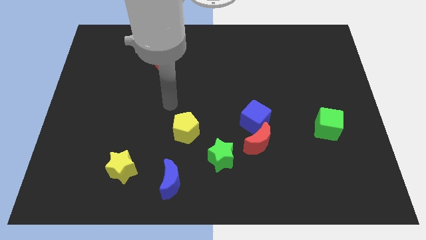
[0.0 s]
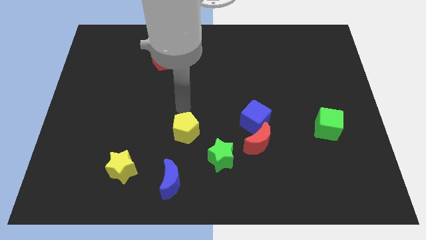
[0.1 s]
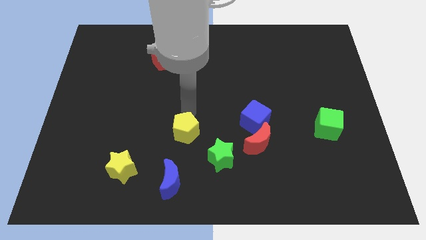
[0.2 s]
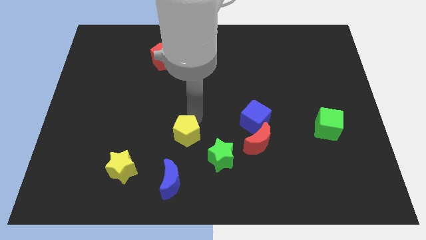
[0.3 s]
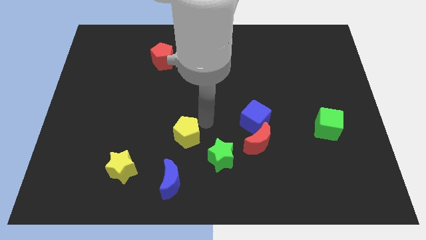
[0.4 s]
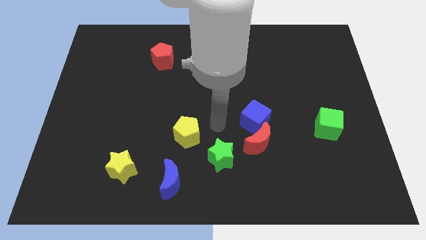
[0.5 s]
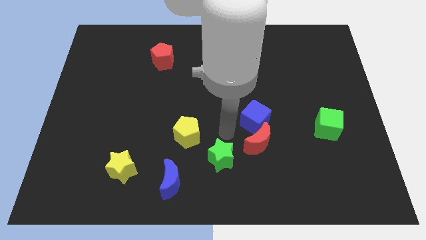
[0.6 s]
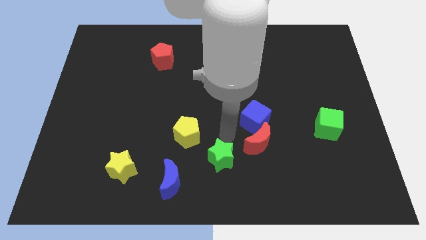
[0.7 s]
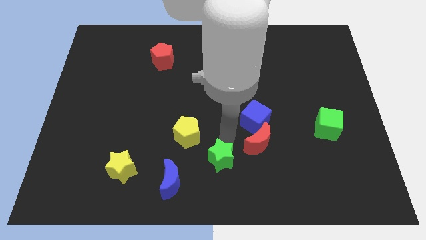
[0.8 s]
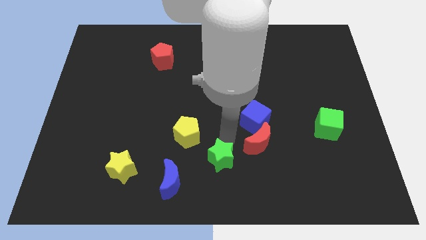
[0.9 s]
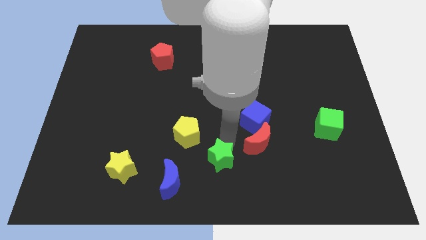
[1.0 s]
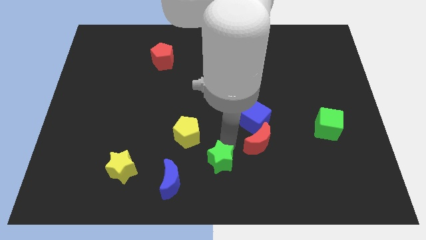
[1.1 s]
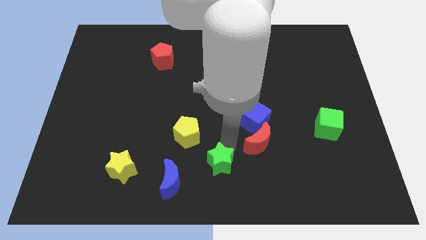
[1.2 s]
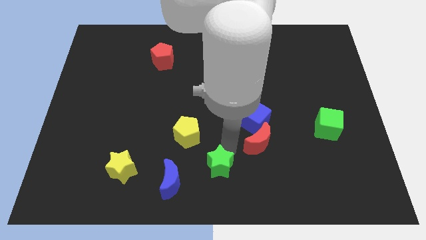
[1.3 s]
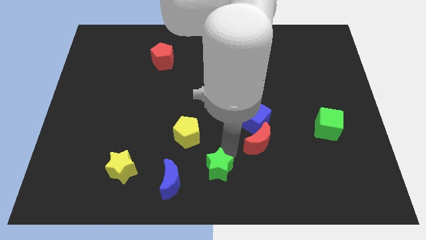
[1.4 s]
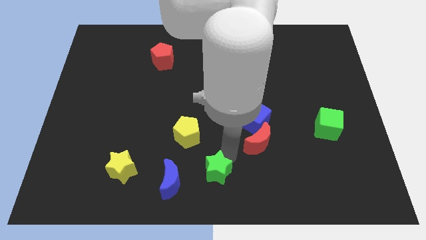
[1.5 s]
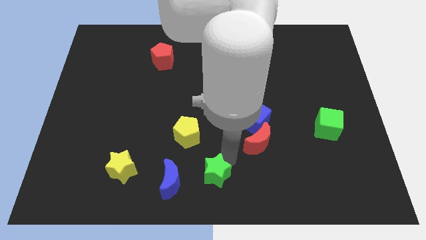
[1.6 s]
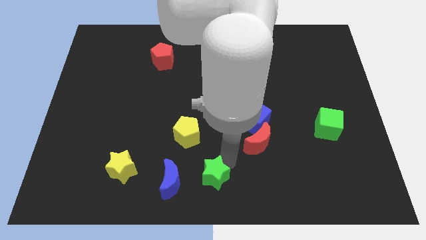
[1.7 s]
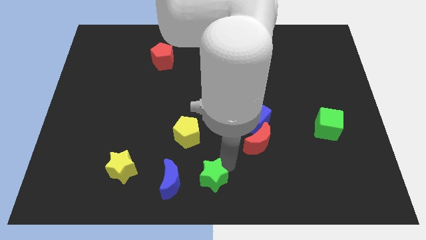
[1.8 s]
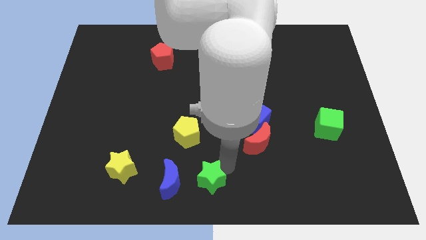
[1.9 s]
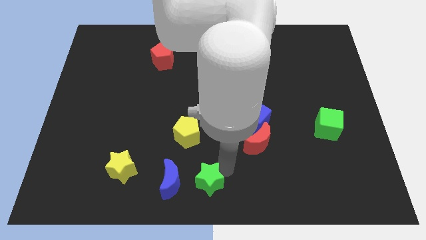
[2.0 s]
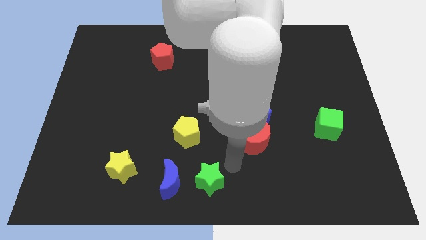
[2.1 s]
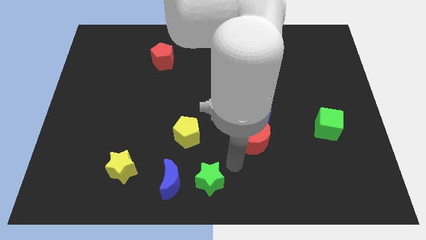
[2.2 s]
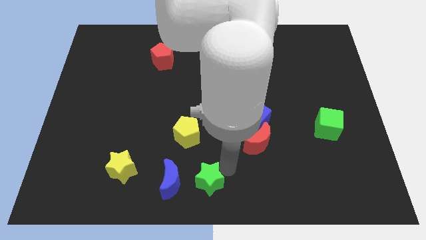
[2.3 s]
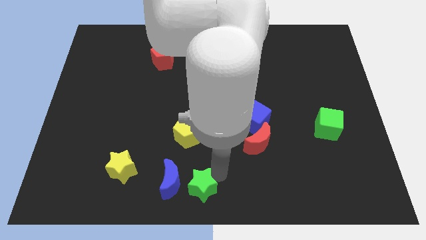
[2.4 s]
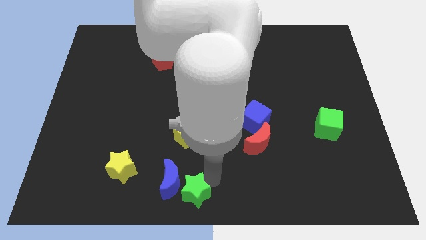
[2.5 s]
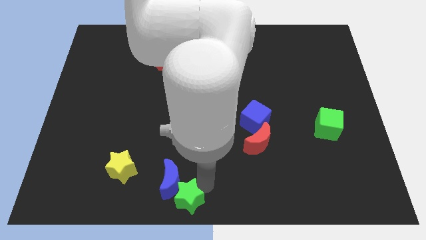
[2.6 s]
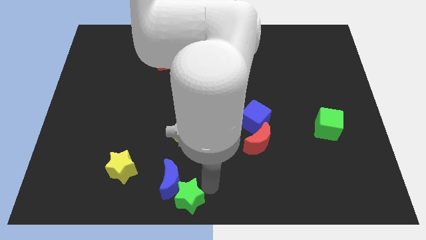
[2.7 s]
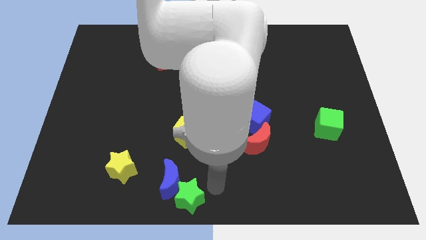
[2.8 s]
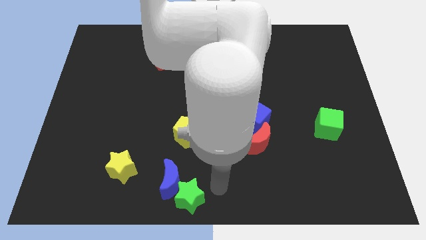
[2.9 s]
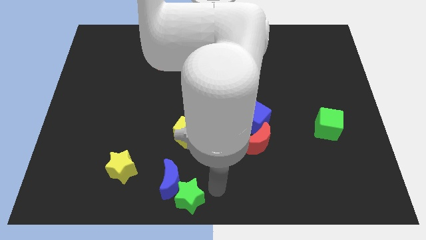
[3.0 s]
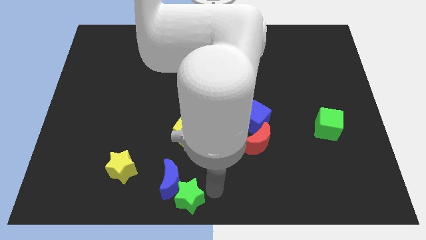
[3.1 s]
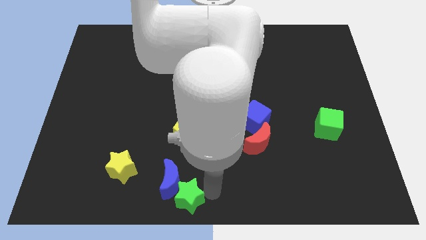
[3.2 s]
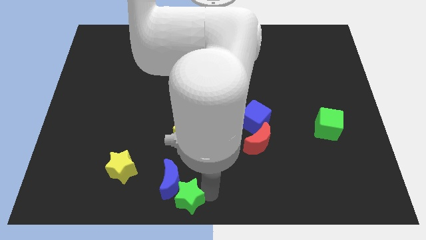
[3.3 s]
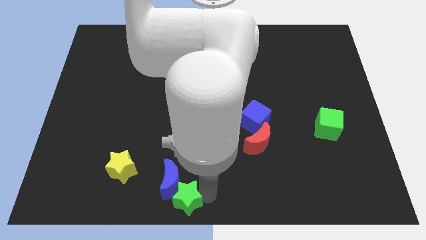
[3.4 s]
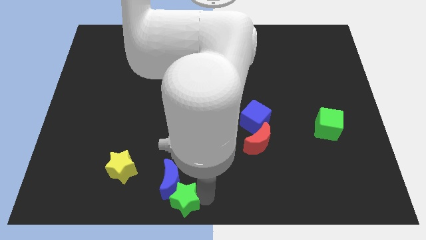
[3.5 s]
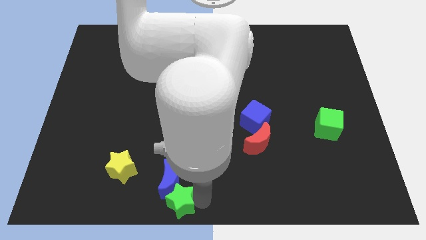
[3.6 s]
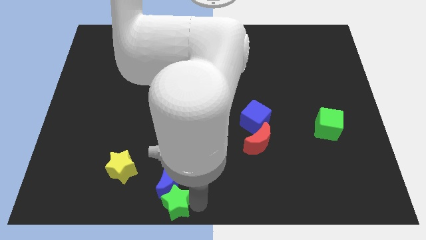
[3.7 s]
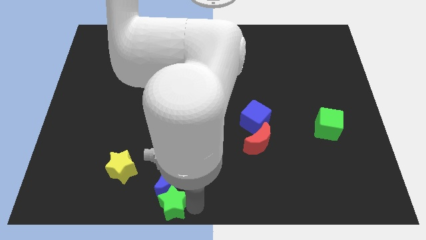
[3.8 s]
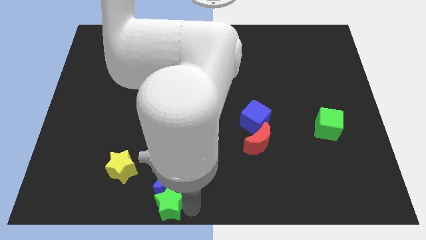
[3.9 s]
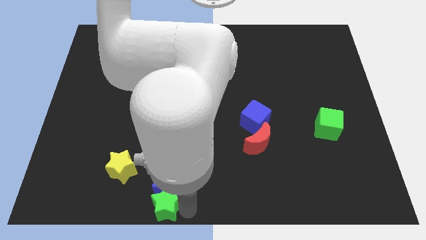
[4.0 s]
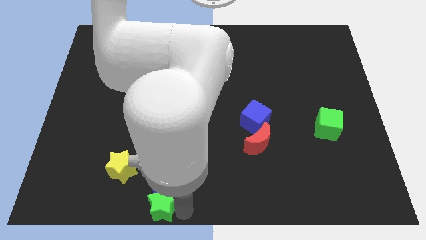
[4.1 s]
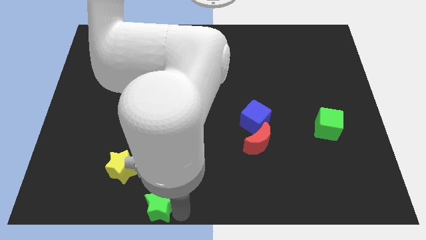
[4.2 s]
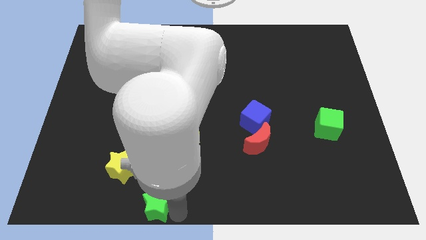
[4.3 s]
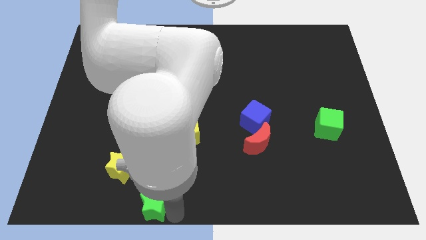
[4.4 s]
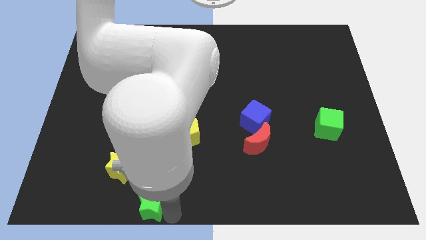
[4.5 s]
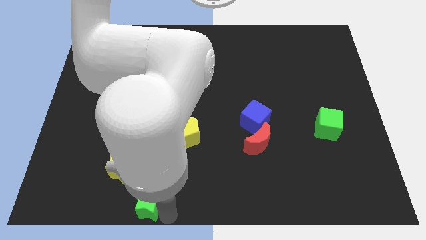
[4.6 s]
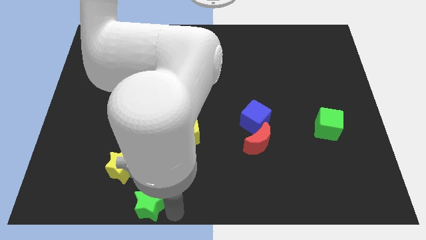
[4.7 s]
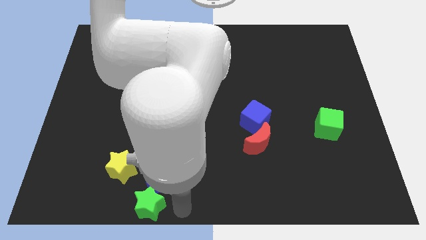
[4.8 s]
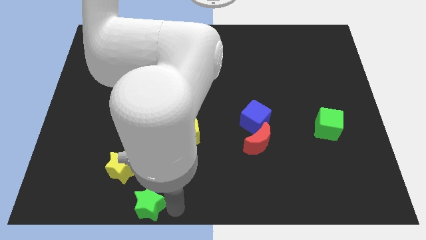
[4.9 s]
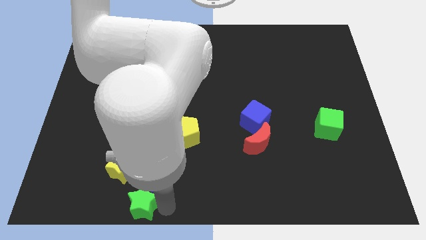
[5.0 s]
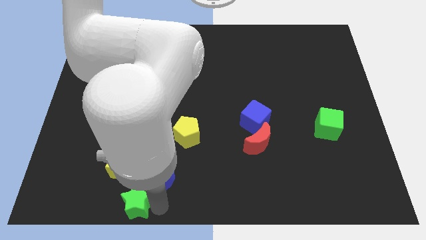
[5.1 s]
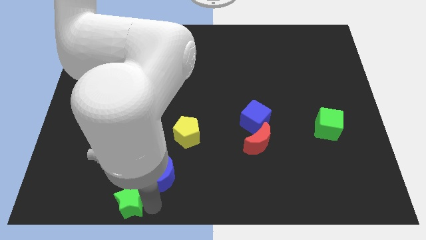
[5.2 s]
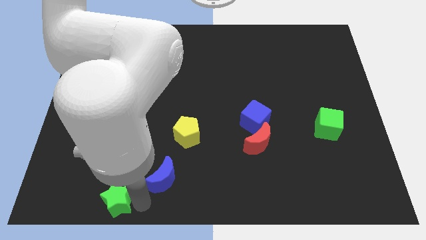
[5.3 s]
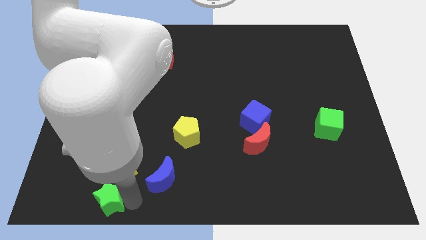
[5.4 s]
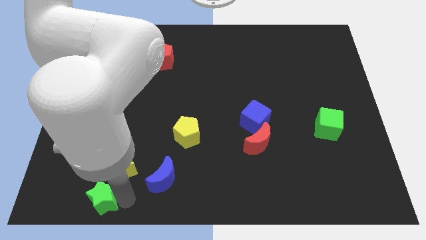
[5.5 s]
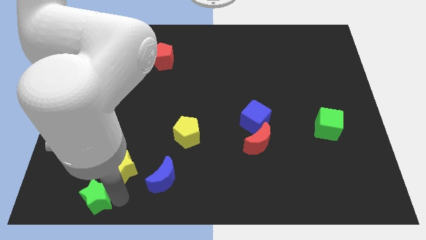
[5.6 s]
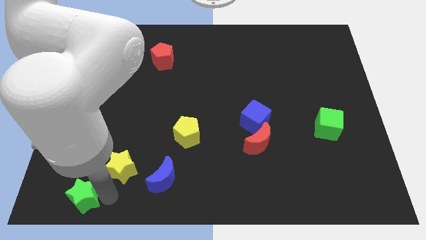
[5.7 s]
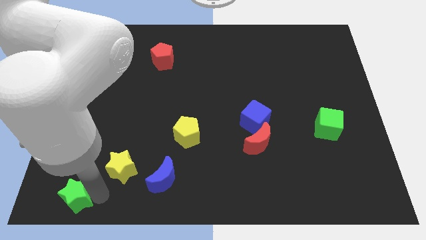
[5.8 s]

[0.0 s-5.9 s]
move the green star to the lower left corner
